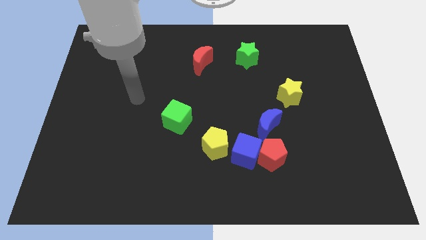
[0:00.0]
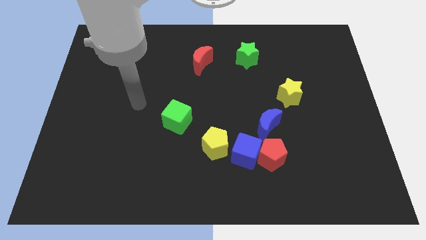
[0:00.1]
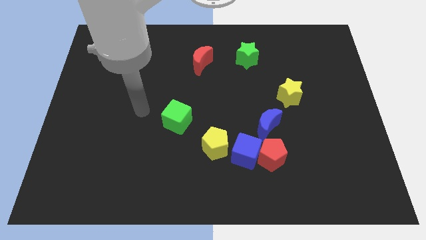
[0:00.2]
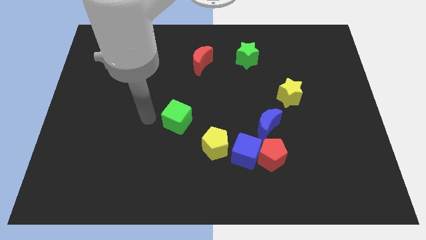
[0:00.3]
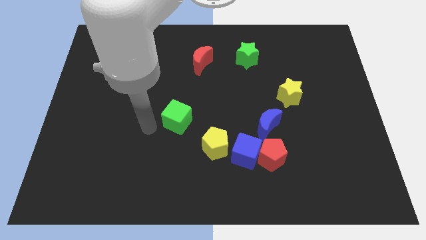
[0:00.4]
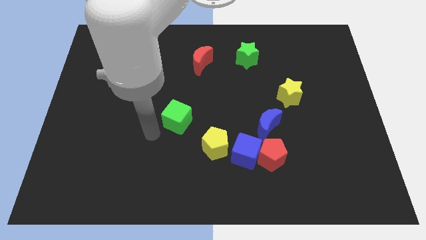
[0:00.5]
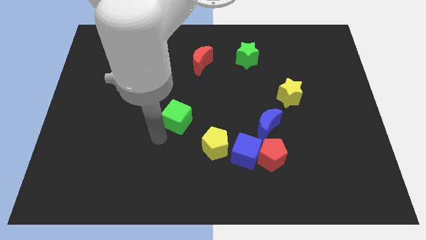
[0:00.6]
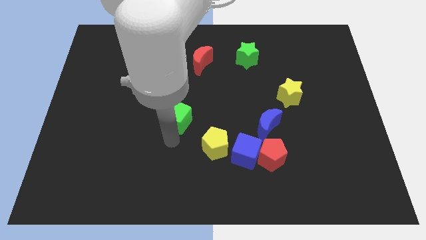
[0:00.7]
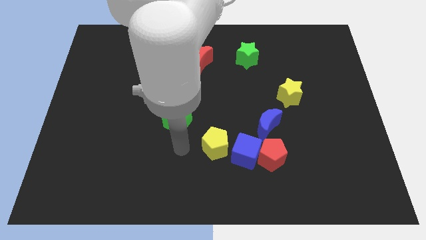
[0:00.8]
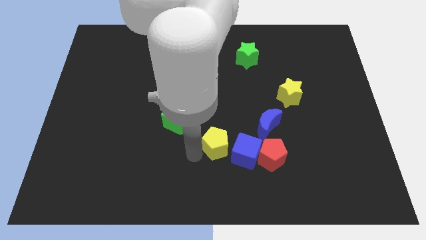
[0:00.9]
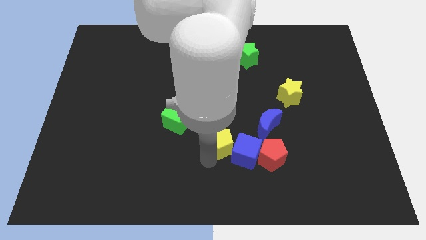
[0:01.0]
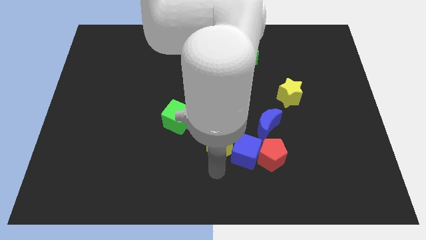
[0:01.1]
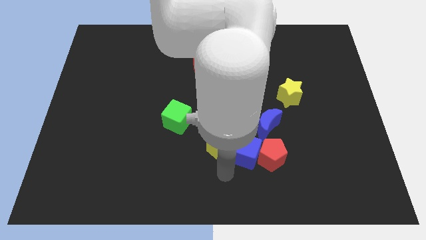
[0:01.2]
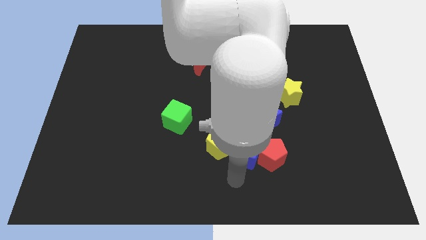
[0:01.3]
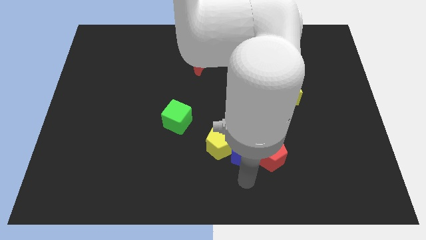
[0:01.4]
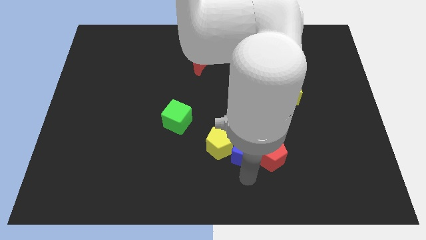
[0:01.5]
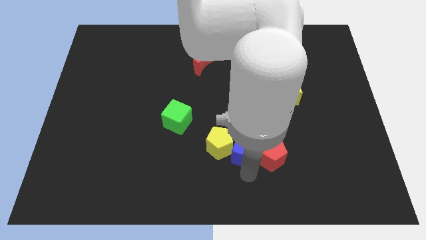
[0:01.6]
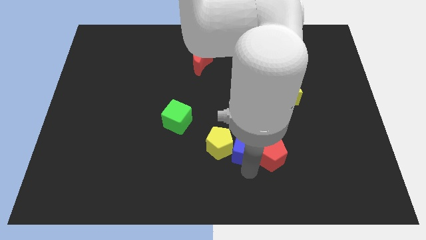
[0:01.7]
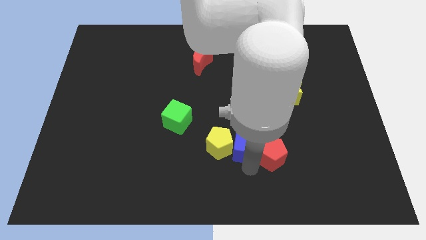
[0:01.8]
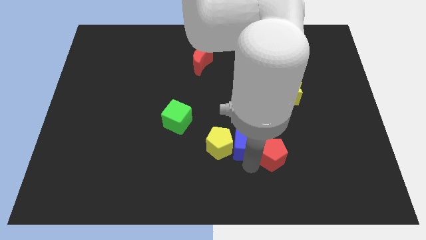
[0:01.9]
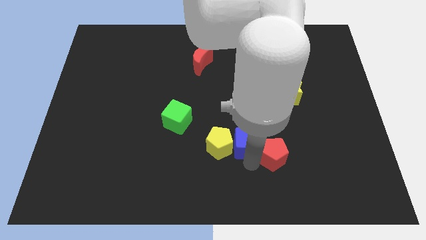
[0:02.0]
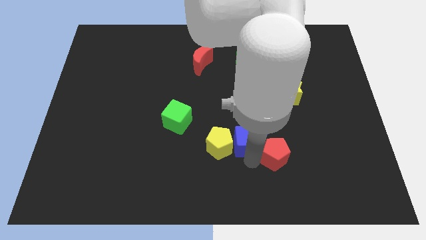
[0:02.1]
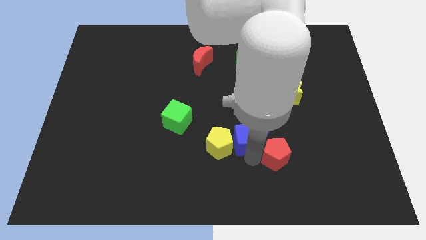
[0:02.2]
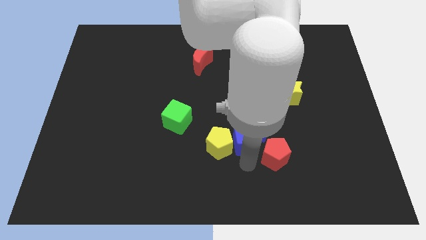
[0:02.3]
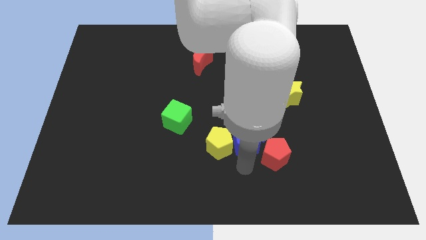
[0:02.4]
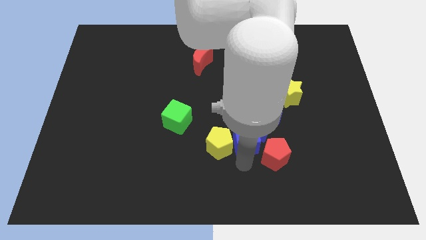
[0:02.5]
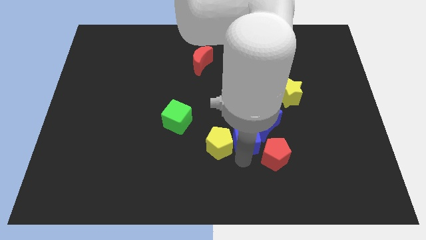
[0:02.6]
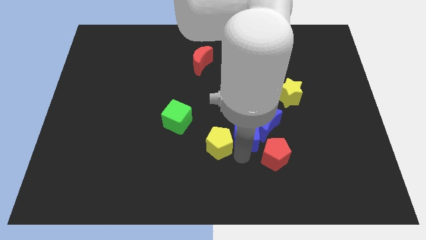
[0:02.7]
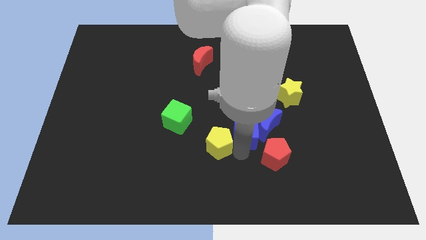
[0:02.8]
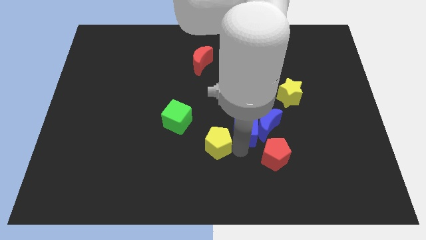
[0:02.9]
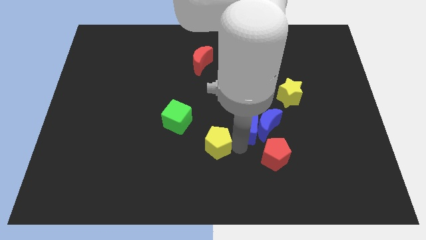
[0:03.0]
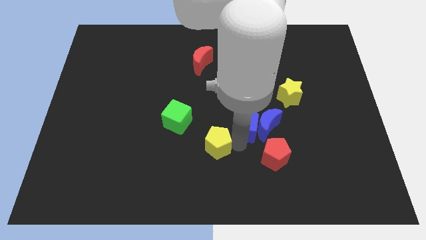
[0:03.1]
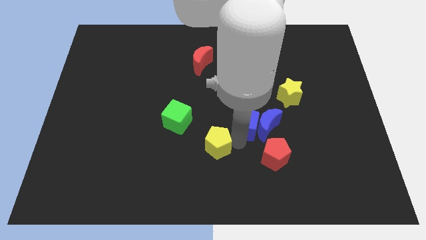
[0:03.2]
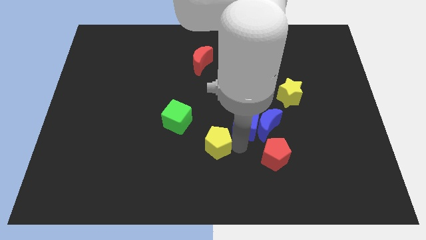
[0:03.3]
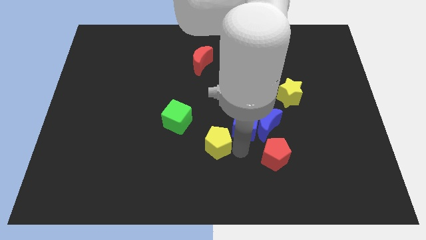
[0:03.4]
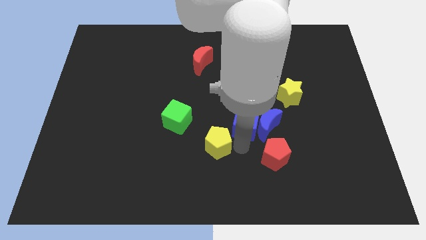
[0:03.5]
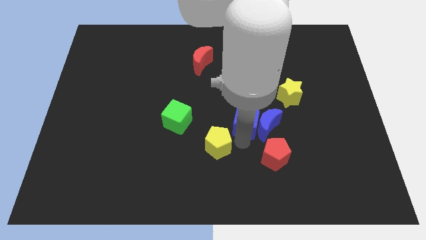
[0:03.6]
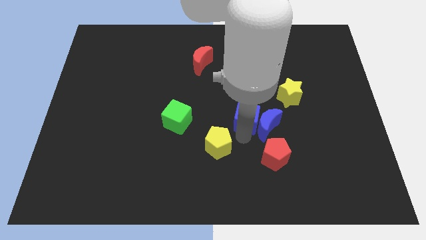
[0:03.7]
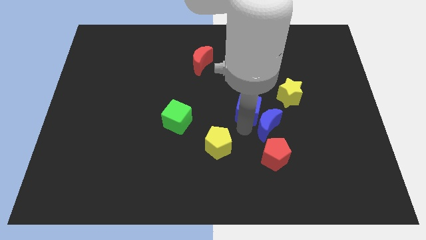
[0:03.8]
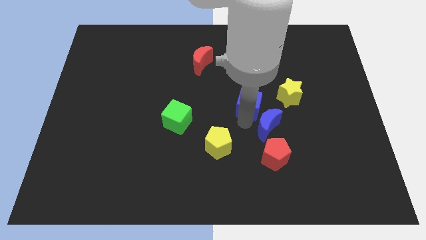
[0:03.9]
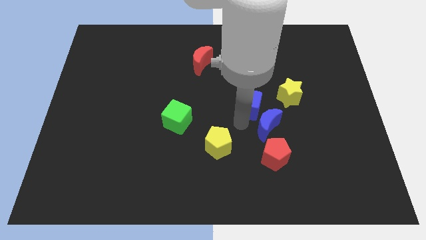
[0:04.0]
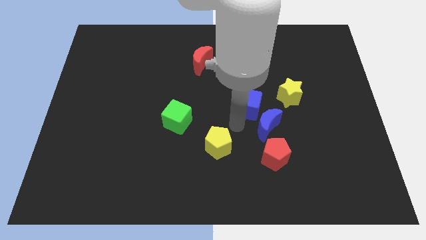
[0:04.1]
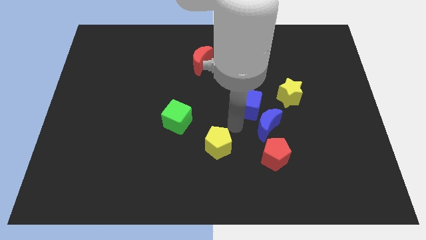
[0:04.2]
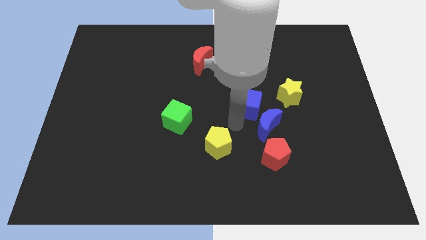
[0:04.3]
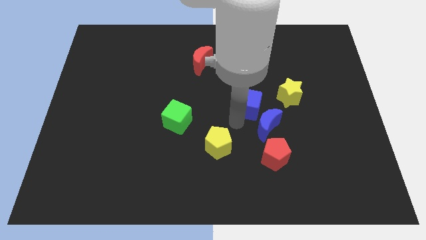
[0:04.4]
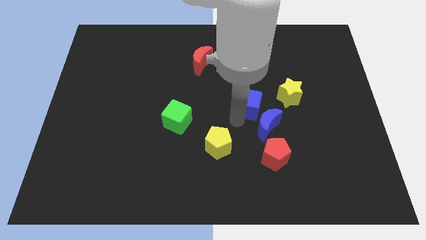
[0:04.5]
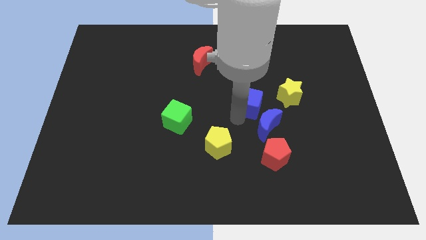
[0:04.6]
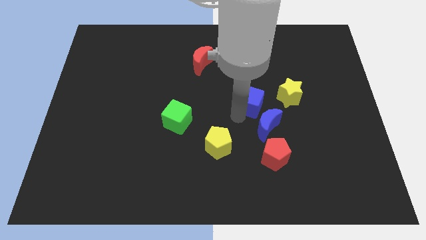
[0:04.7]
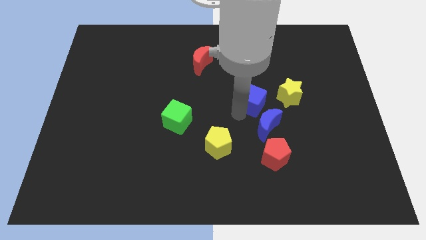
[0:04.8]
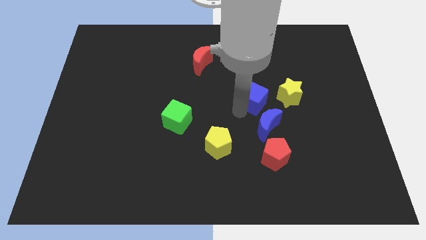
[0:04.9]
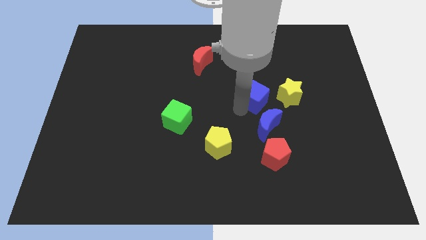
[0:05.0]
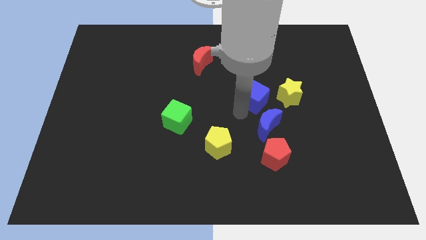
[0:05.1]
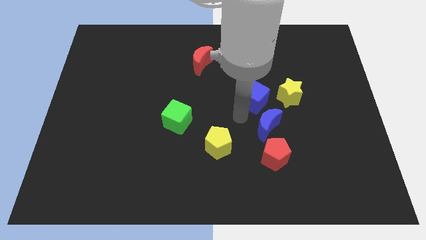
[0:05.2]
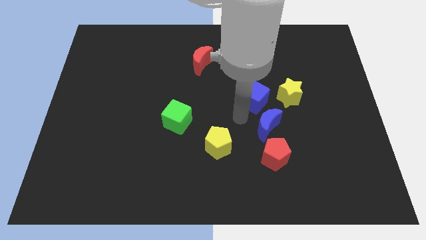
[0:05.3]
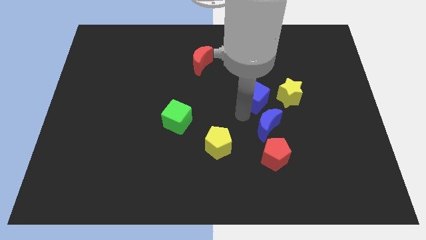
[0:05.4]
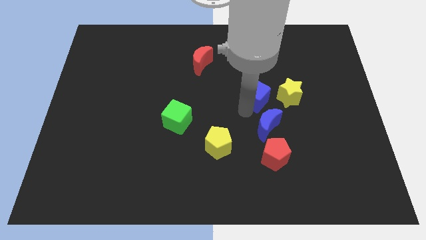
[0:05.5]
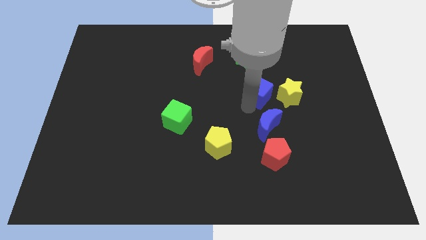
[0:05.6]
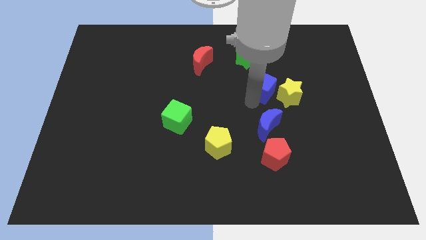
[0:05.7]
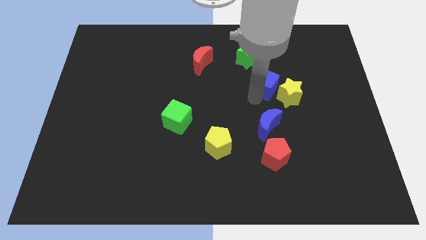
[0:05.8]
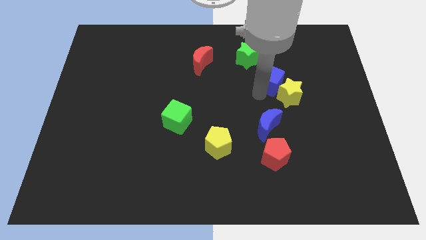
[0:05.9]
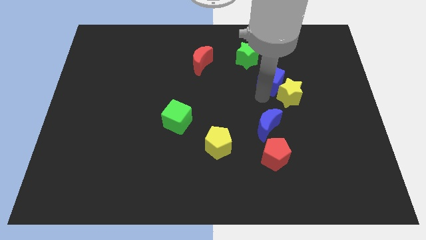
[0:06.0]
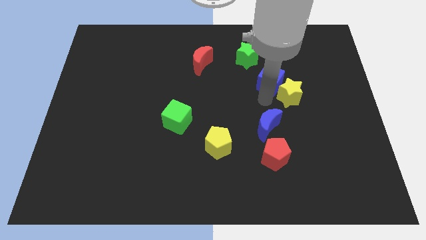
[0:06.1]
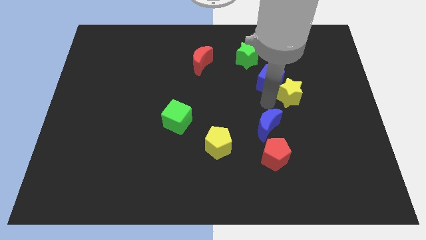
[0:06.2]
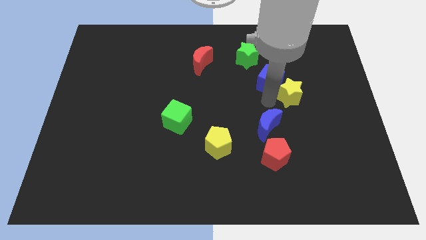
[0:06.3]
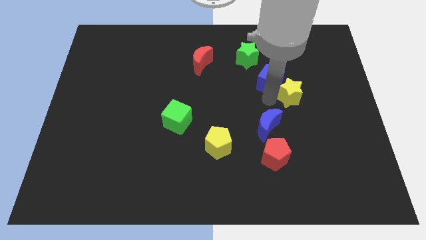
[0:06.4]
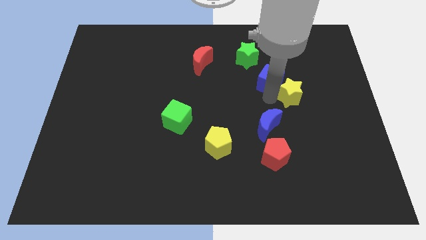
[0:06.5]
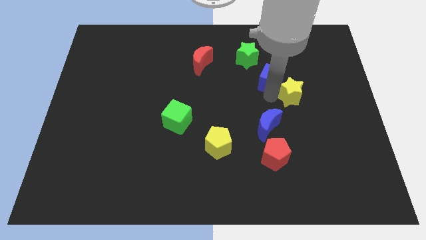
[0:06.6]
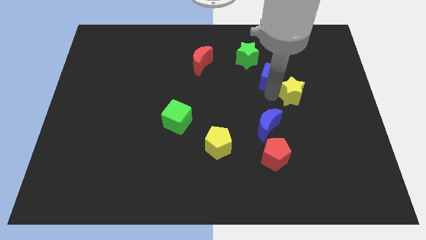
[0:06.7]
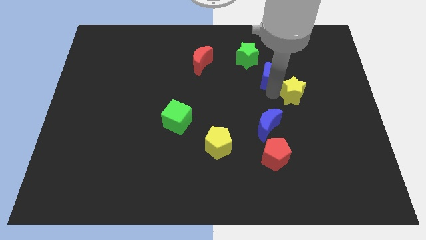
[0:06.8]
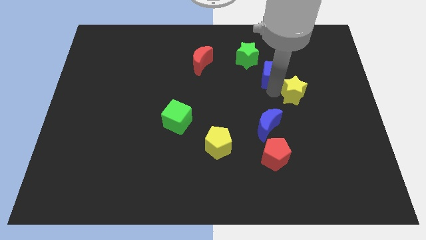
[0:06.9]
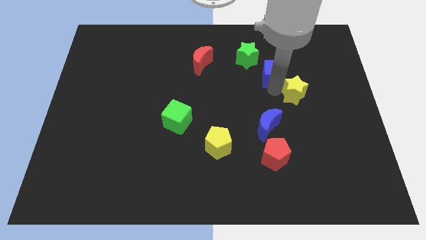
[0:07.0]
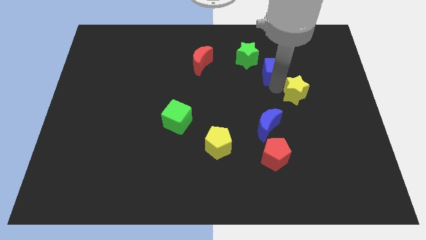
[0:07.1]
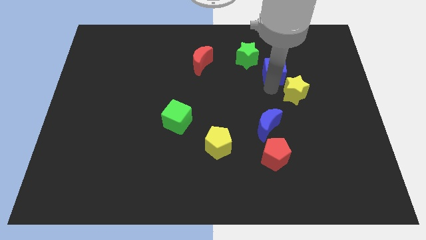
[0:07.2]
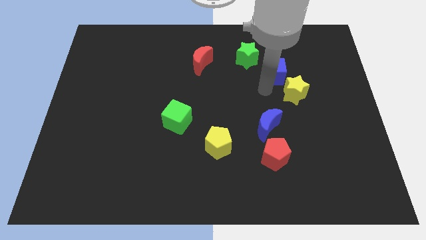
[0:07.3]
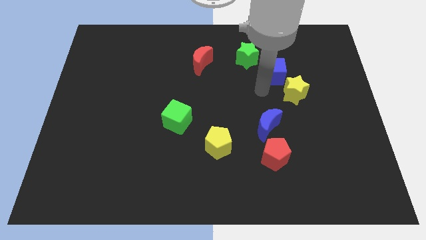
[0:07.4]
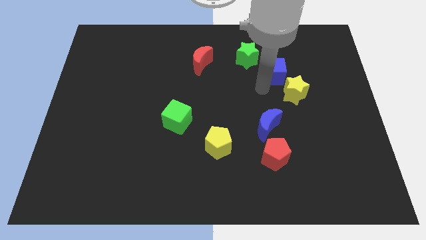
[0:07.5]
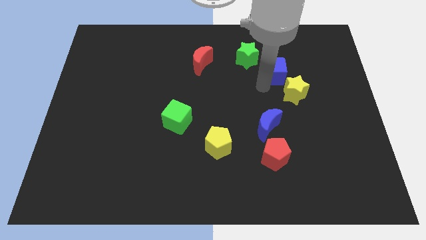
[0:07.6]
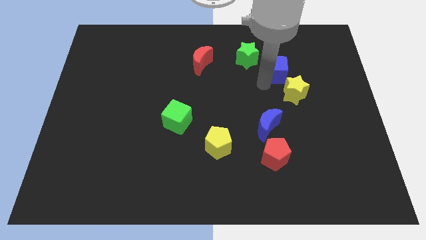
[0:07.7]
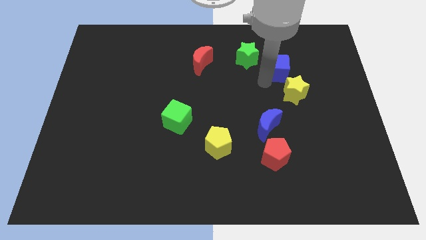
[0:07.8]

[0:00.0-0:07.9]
move the blue cube just right of the green star

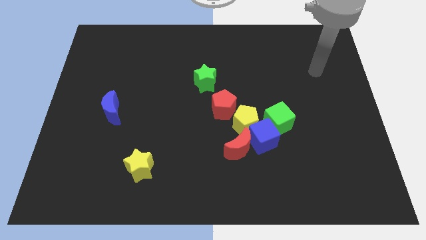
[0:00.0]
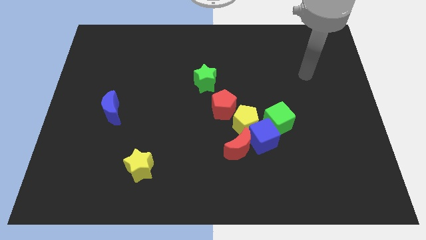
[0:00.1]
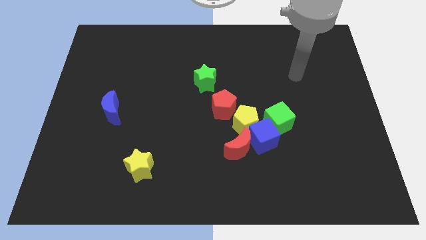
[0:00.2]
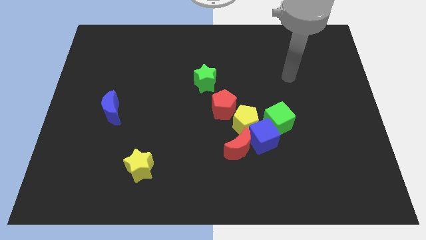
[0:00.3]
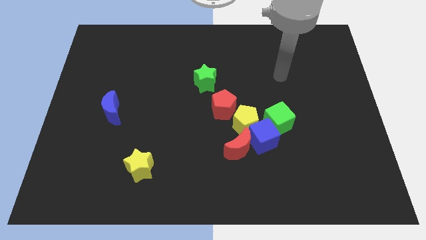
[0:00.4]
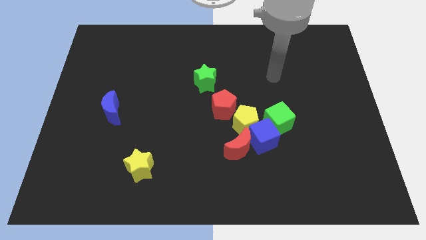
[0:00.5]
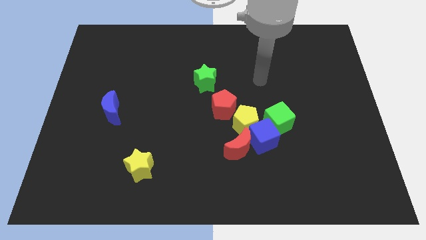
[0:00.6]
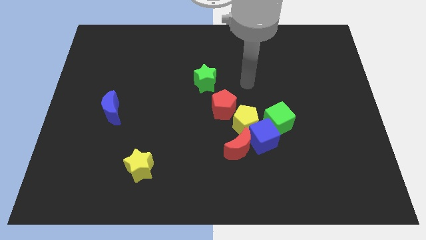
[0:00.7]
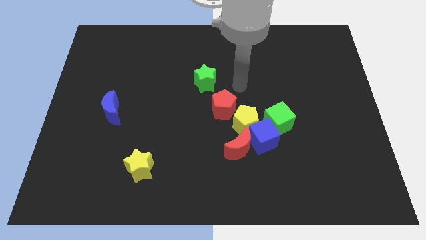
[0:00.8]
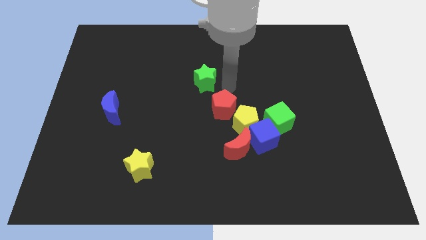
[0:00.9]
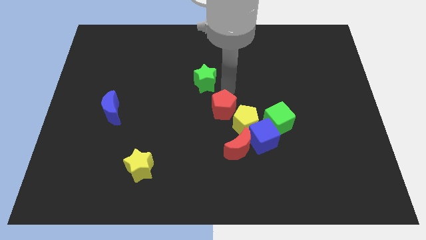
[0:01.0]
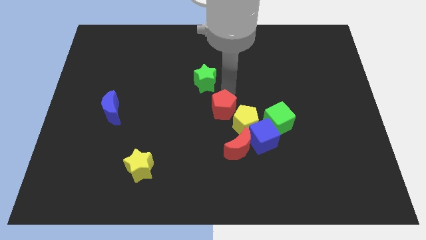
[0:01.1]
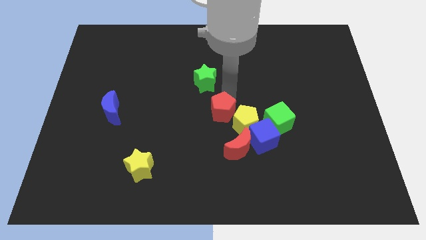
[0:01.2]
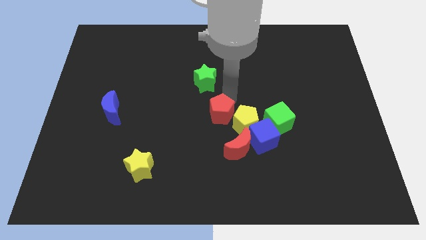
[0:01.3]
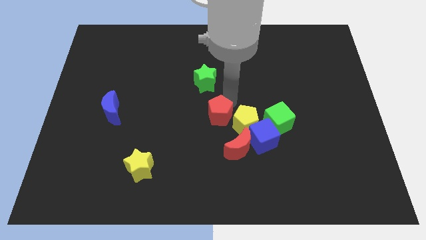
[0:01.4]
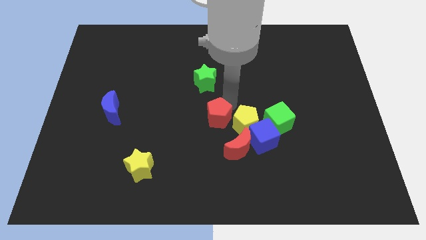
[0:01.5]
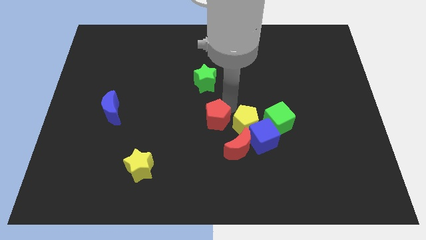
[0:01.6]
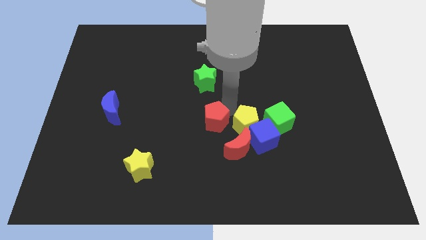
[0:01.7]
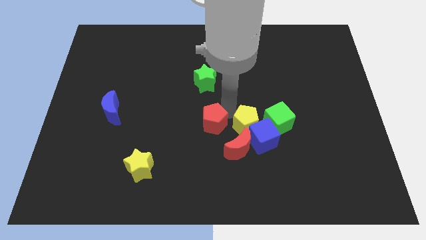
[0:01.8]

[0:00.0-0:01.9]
move the red pentagon just left of the blue cube
